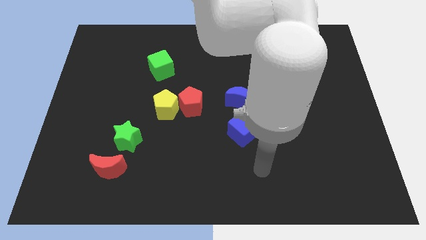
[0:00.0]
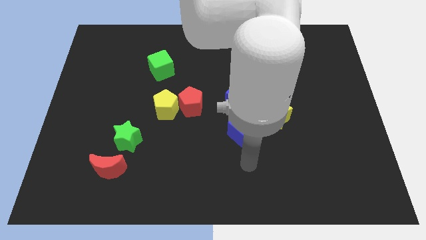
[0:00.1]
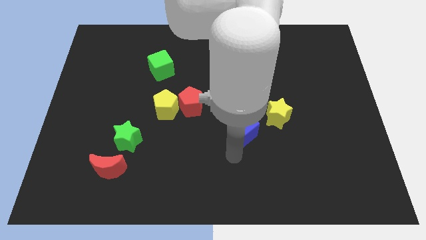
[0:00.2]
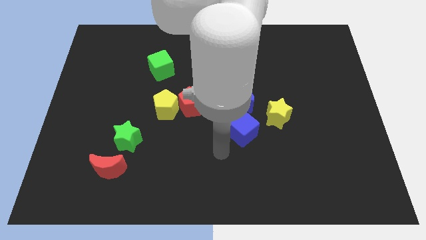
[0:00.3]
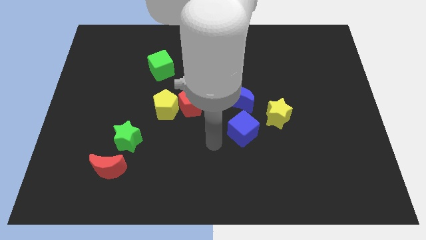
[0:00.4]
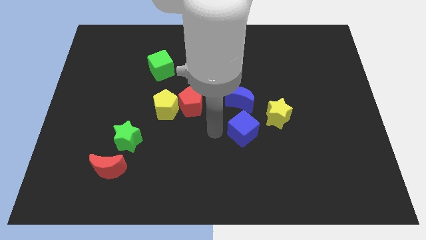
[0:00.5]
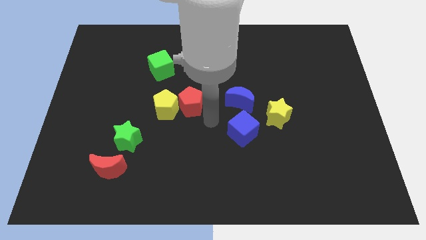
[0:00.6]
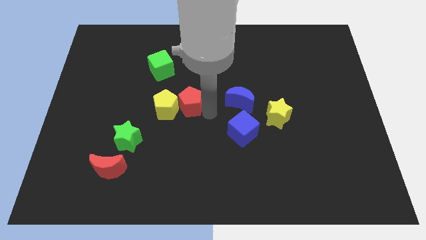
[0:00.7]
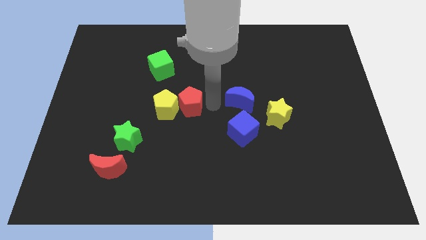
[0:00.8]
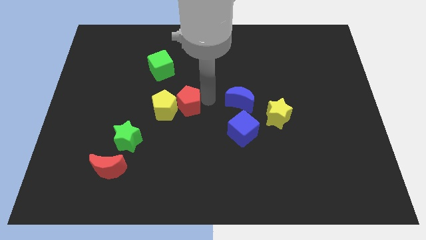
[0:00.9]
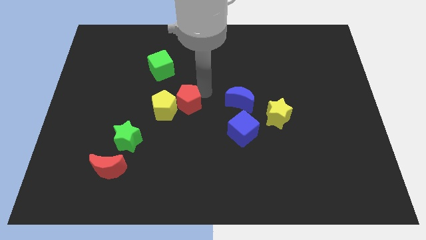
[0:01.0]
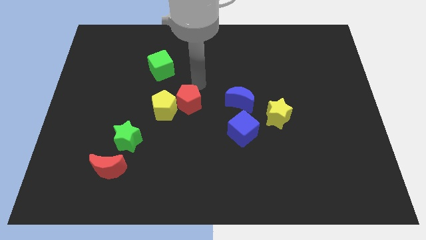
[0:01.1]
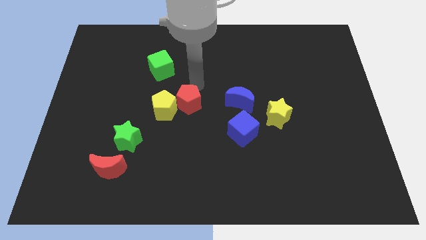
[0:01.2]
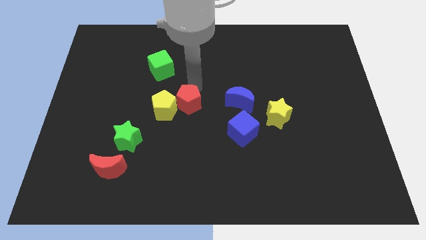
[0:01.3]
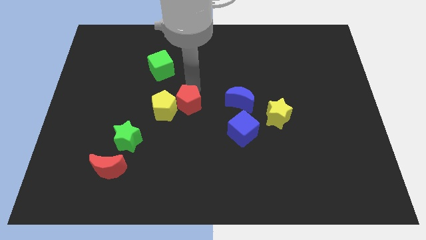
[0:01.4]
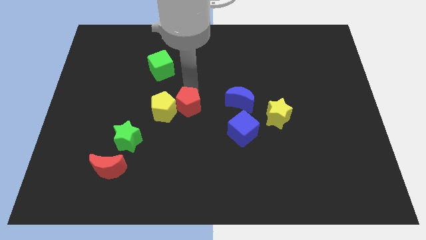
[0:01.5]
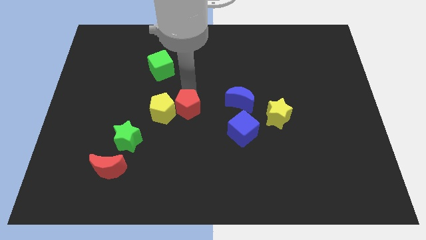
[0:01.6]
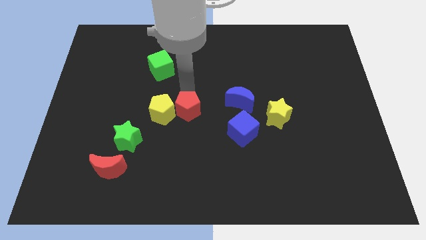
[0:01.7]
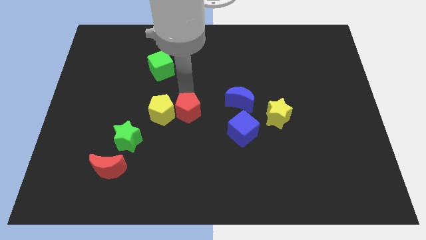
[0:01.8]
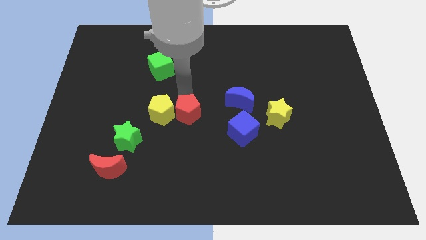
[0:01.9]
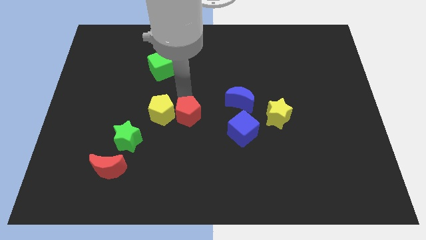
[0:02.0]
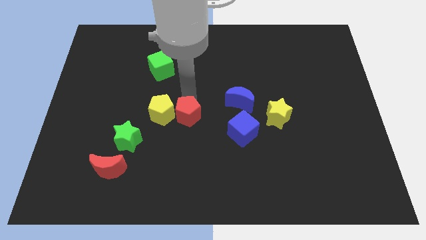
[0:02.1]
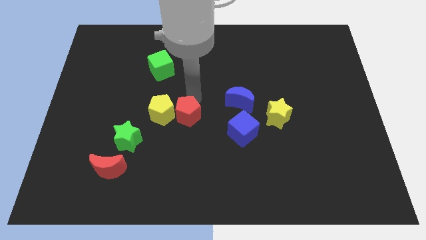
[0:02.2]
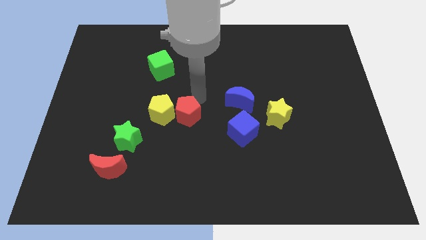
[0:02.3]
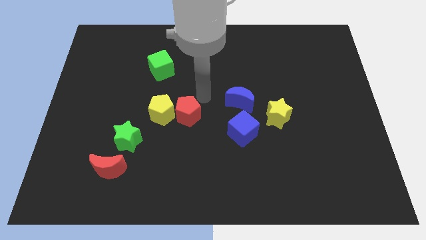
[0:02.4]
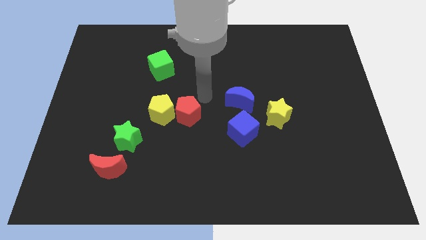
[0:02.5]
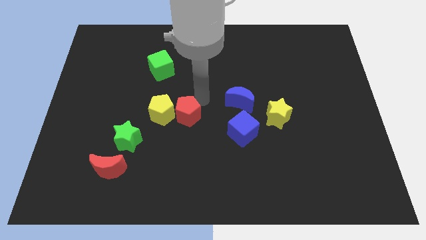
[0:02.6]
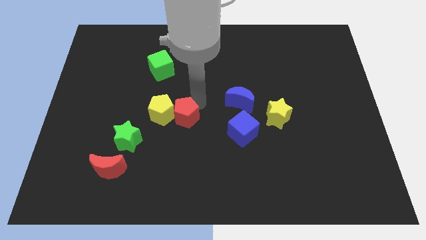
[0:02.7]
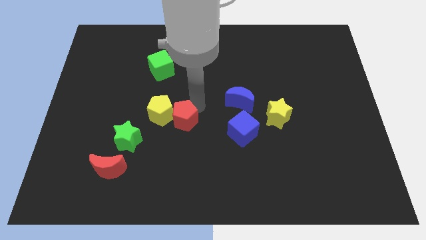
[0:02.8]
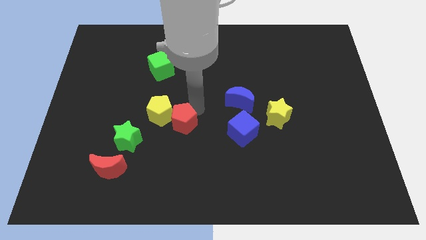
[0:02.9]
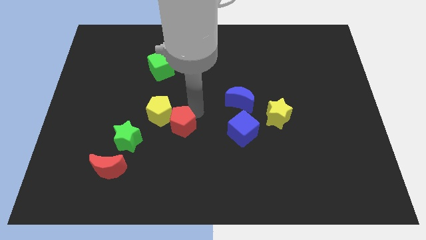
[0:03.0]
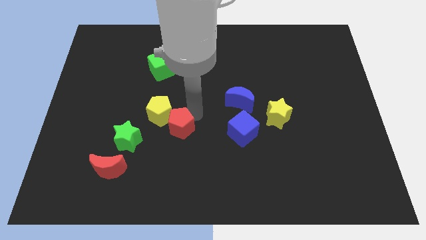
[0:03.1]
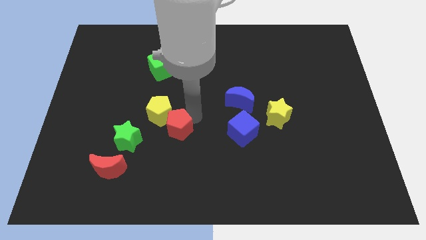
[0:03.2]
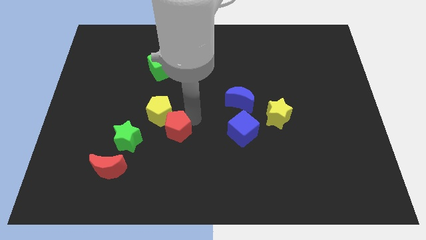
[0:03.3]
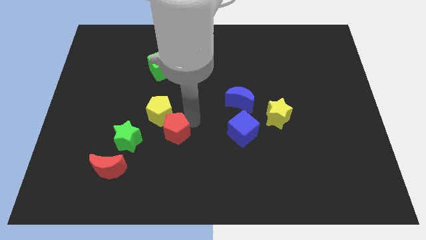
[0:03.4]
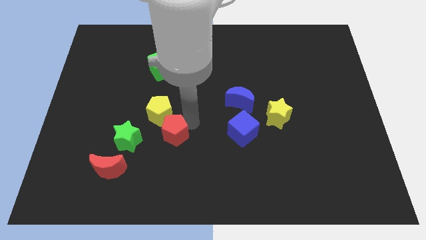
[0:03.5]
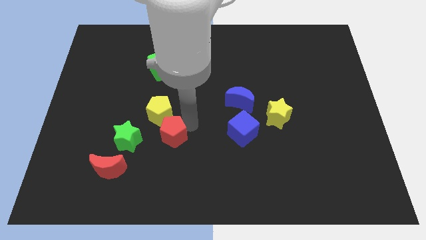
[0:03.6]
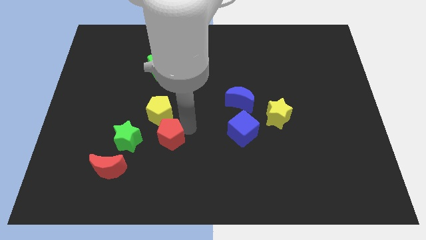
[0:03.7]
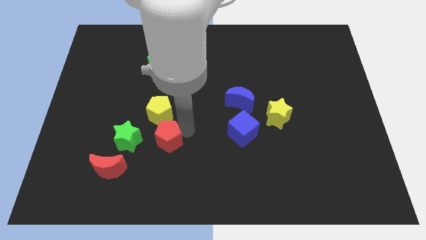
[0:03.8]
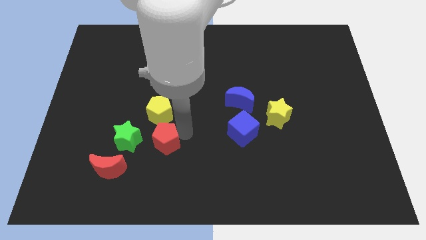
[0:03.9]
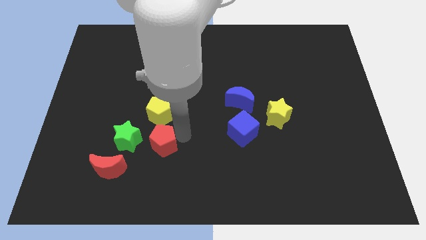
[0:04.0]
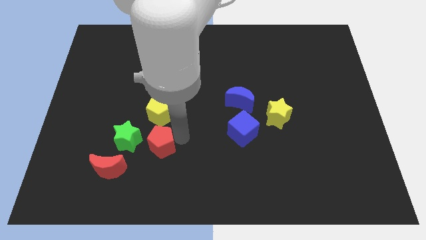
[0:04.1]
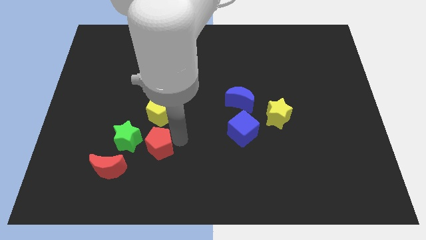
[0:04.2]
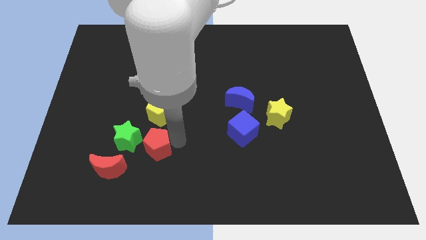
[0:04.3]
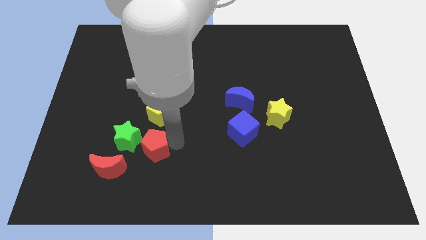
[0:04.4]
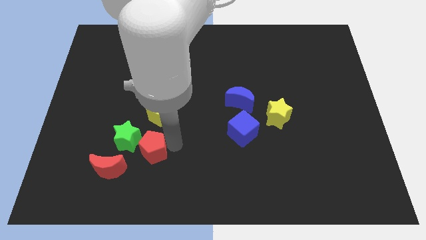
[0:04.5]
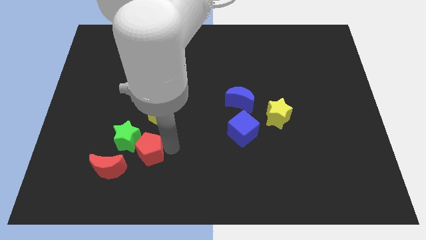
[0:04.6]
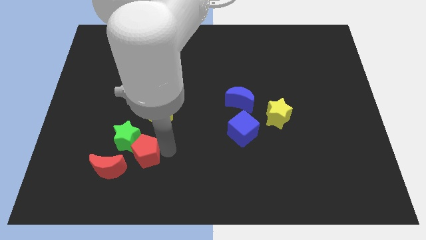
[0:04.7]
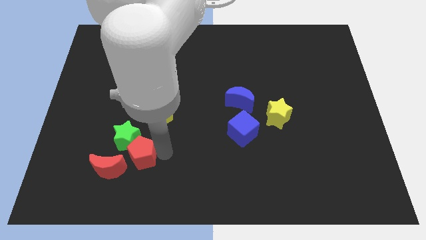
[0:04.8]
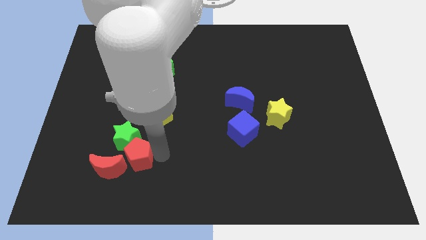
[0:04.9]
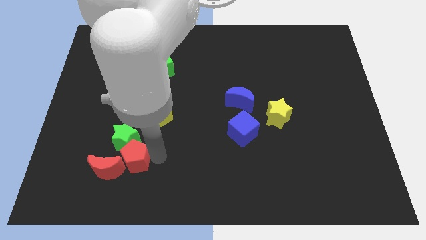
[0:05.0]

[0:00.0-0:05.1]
slide the red pentagon close to the red moon

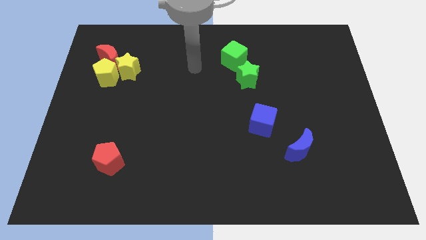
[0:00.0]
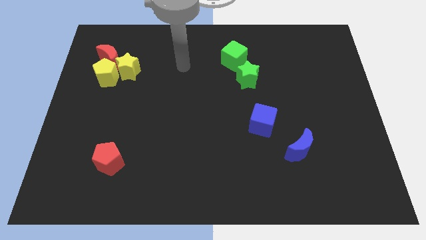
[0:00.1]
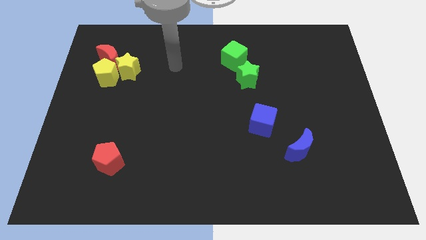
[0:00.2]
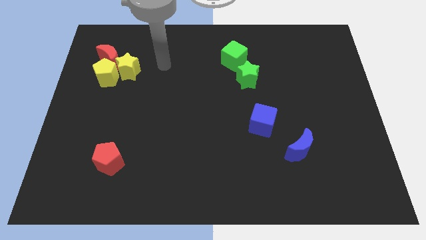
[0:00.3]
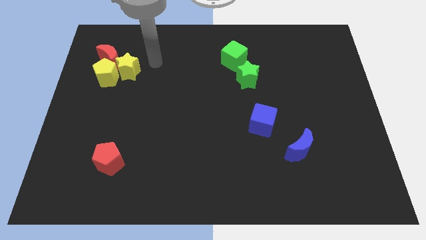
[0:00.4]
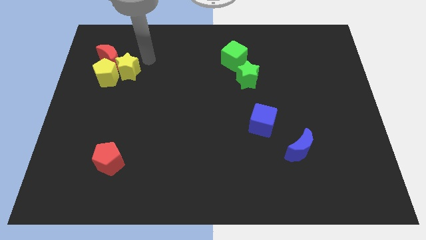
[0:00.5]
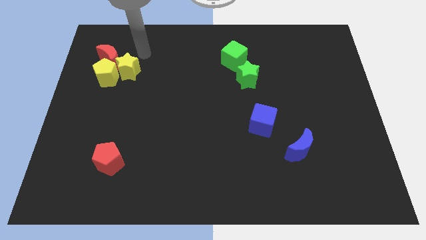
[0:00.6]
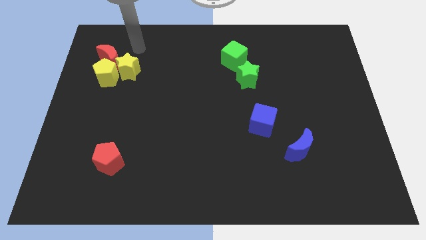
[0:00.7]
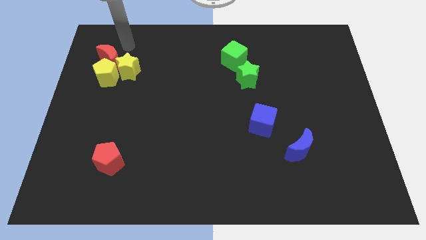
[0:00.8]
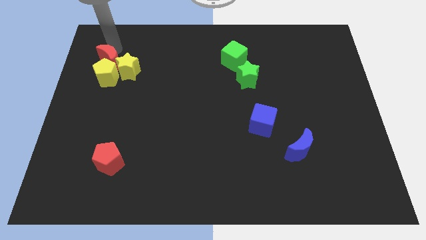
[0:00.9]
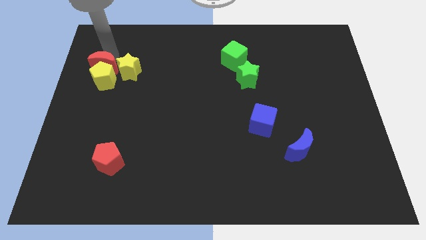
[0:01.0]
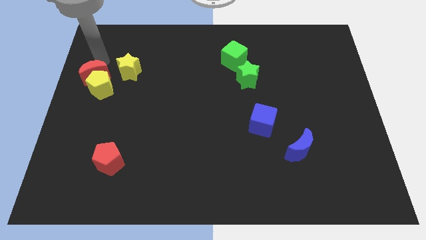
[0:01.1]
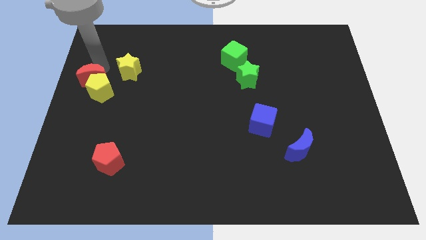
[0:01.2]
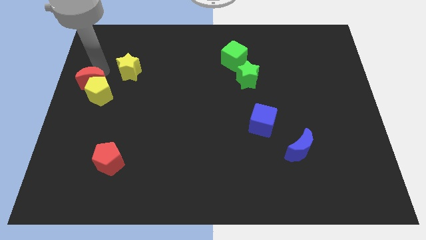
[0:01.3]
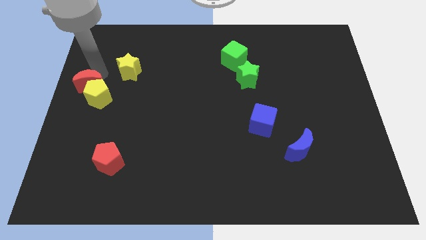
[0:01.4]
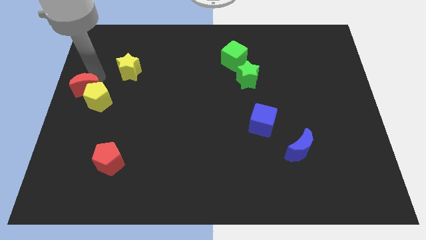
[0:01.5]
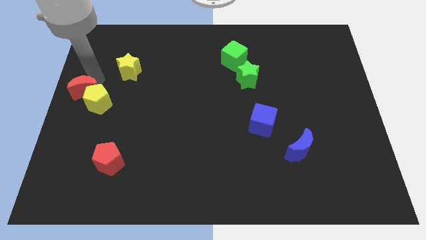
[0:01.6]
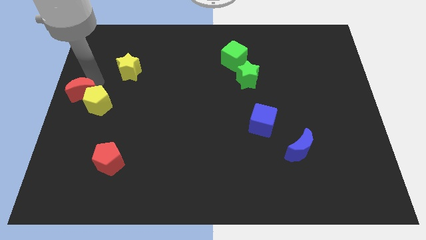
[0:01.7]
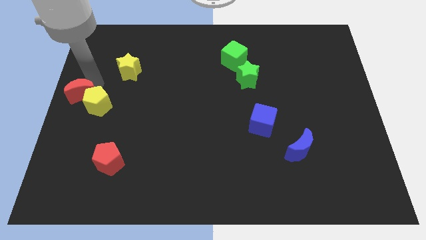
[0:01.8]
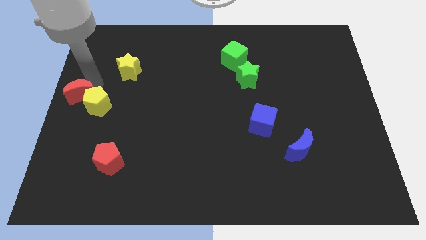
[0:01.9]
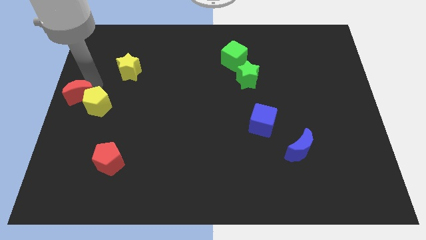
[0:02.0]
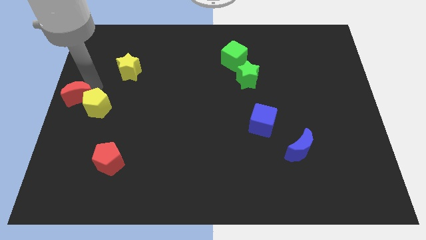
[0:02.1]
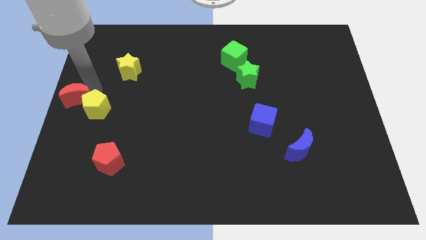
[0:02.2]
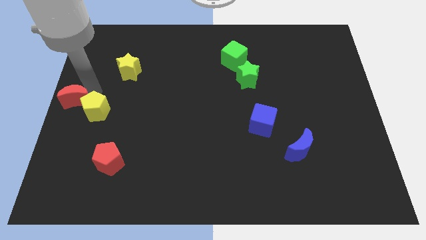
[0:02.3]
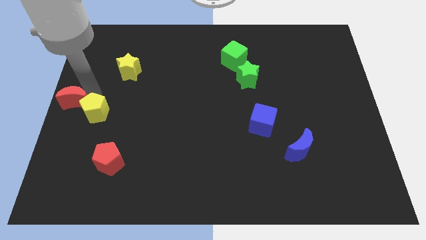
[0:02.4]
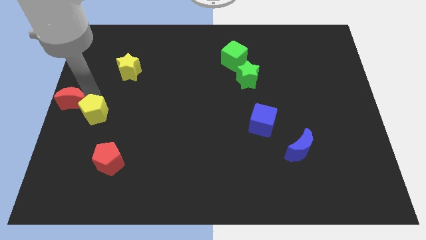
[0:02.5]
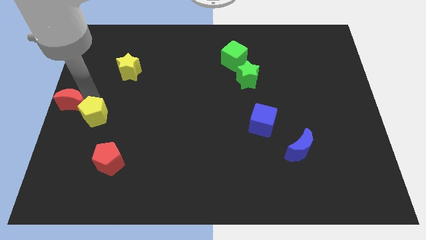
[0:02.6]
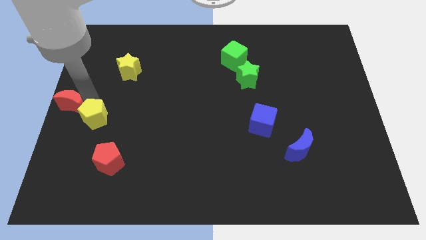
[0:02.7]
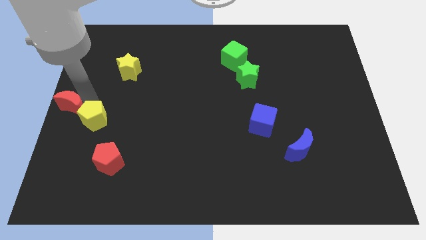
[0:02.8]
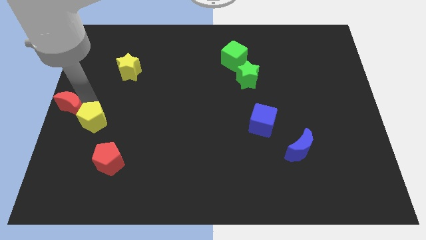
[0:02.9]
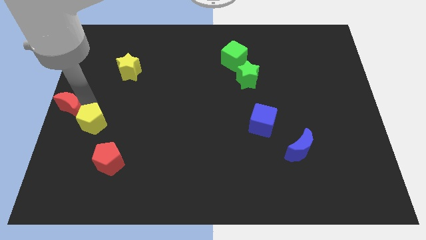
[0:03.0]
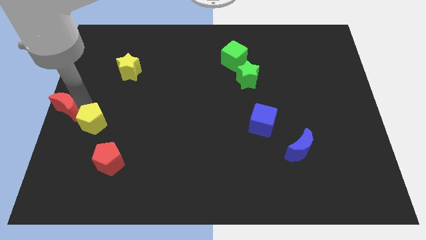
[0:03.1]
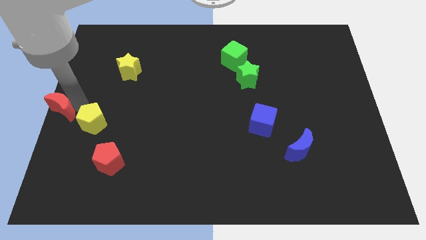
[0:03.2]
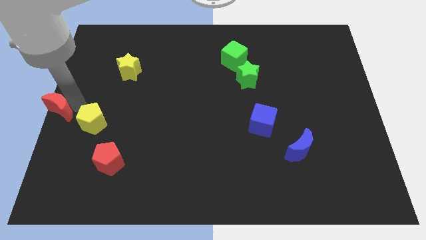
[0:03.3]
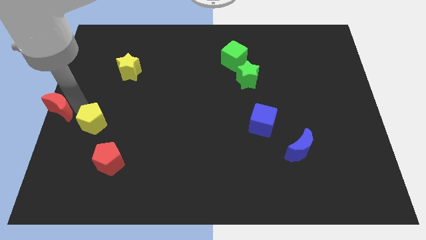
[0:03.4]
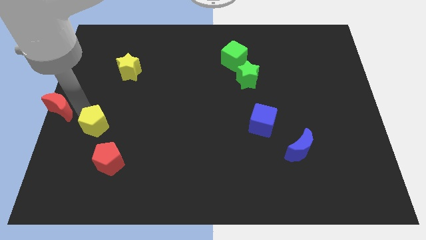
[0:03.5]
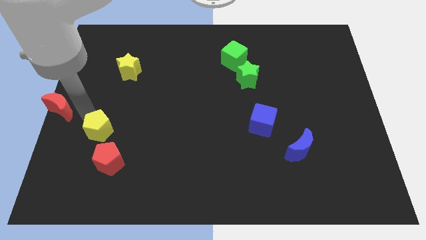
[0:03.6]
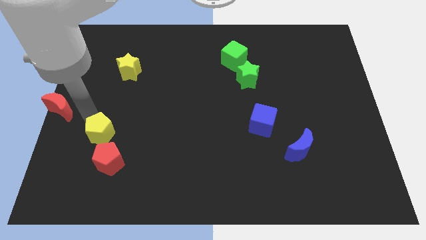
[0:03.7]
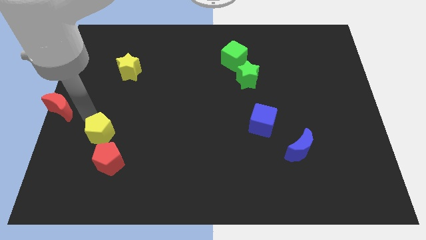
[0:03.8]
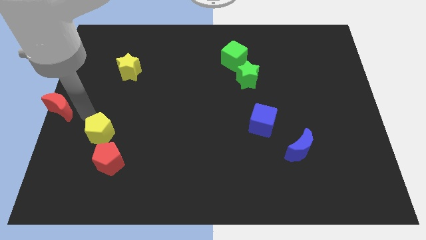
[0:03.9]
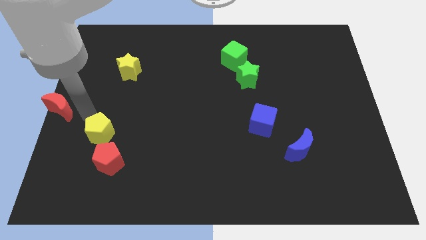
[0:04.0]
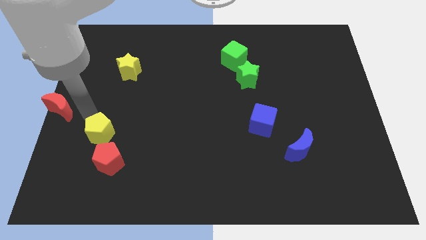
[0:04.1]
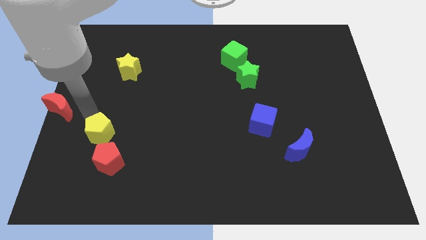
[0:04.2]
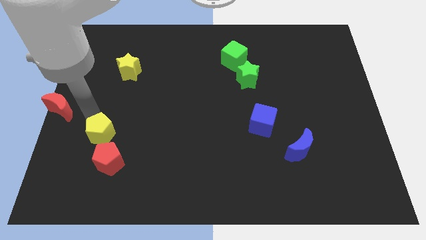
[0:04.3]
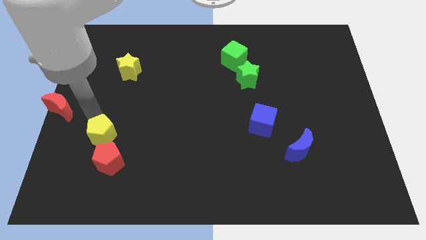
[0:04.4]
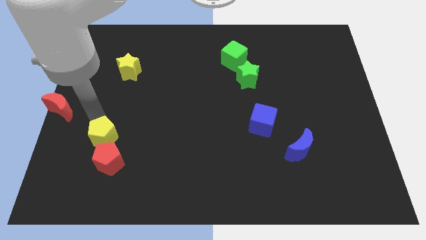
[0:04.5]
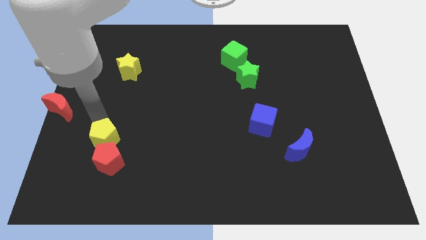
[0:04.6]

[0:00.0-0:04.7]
move the yellow pentagon towards the red pentagon
